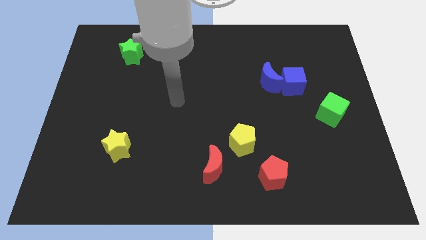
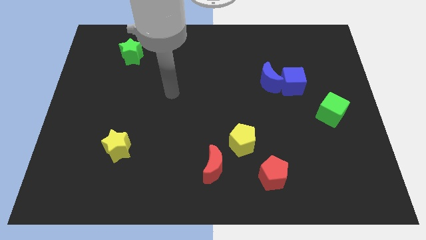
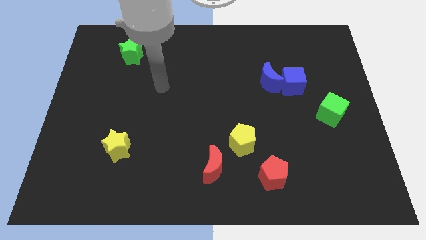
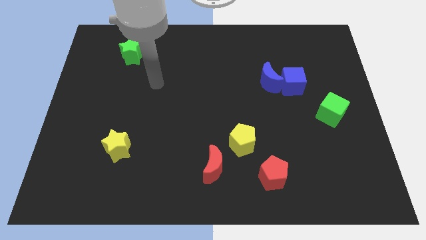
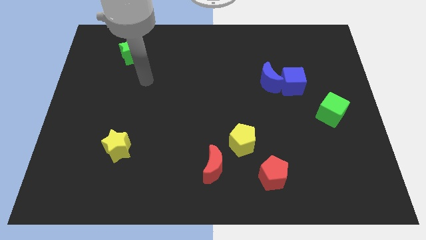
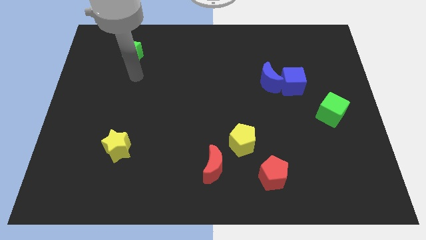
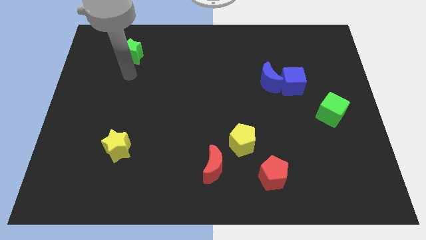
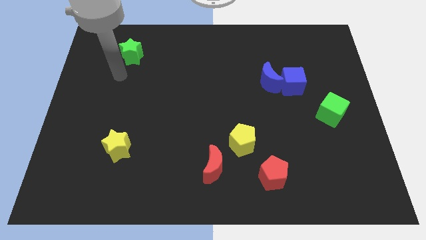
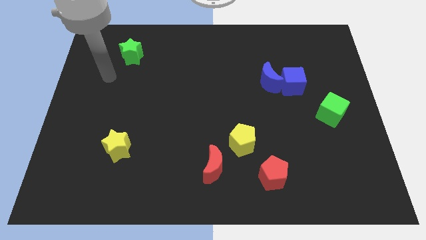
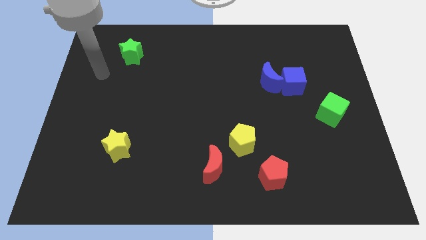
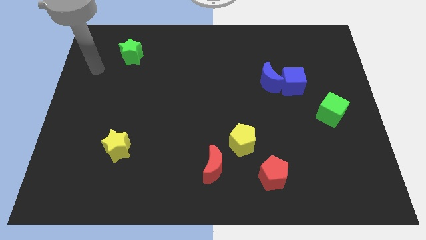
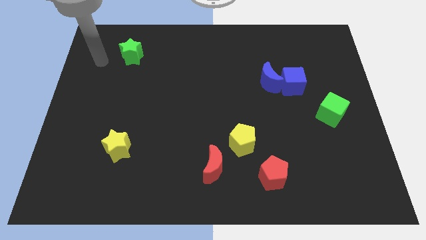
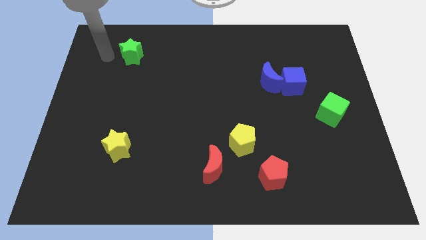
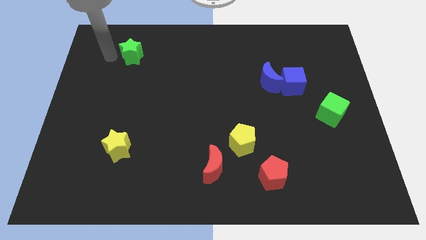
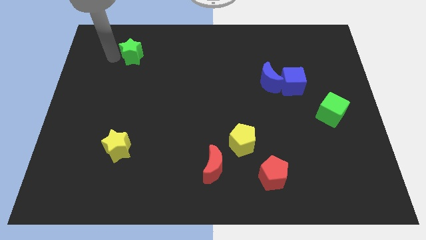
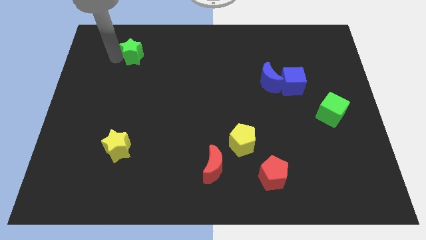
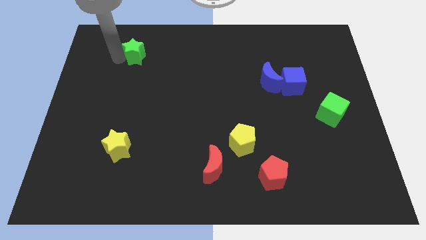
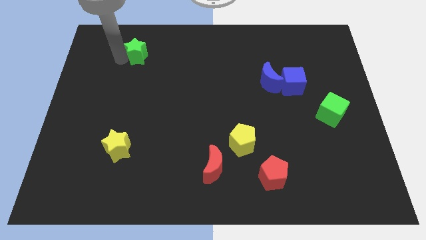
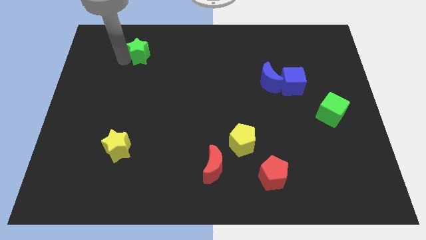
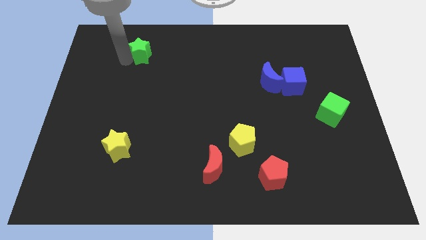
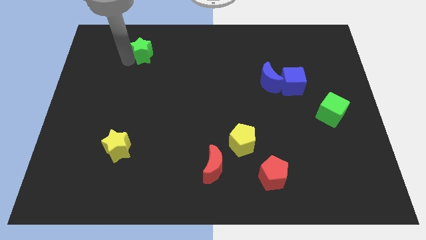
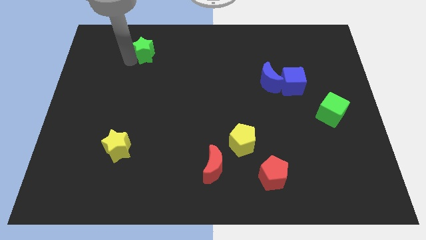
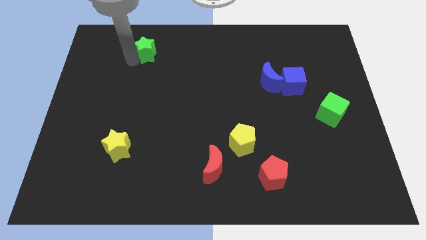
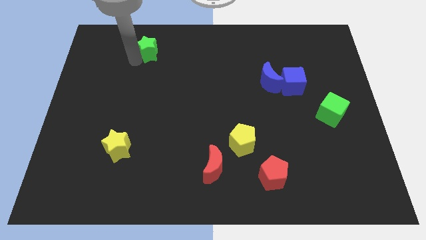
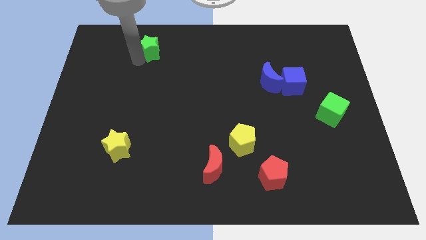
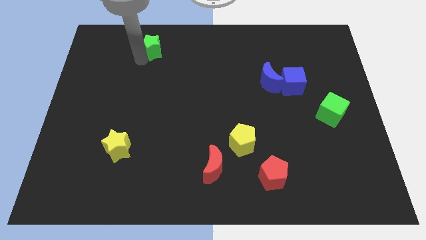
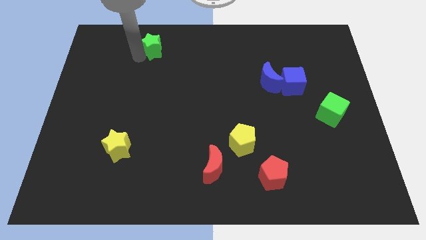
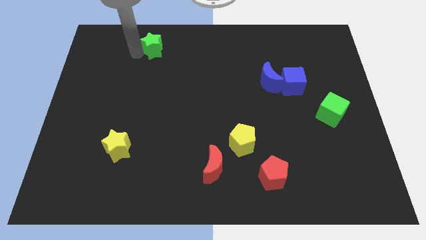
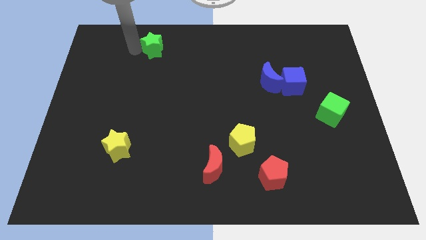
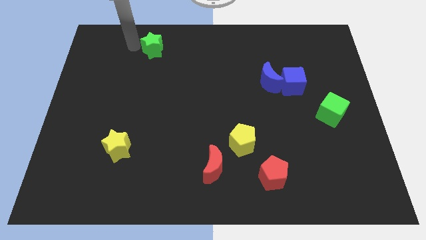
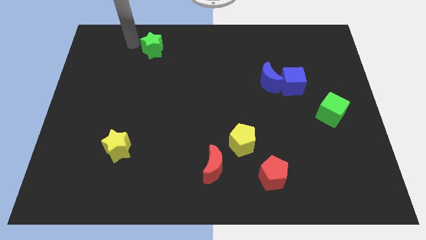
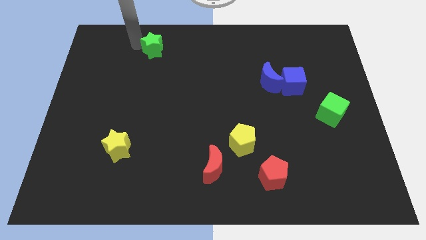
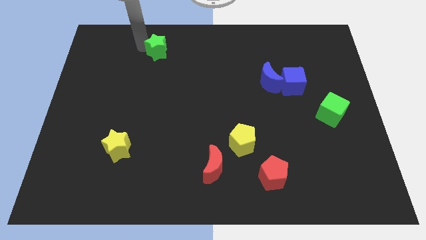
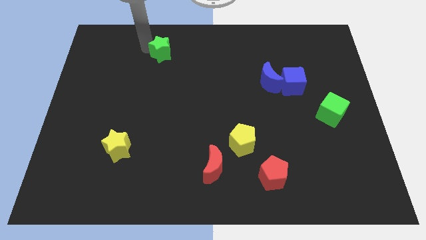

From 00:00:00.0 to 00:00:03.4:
slide the green star right a little

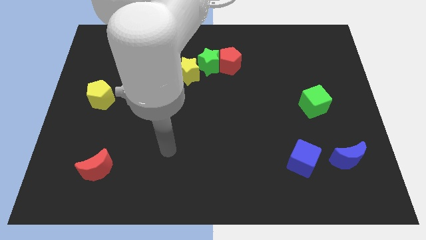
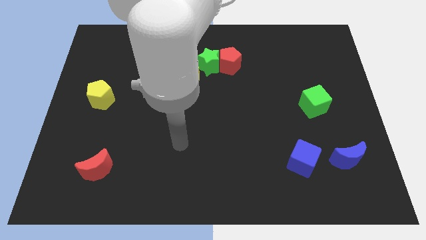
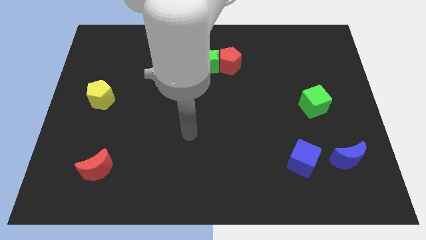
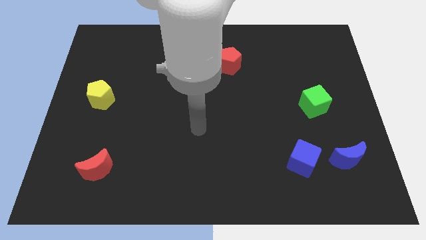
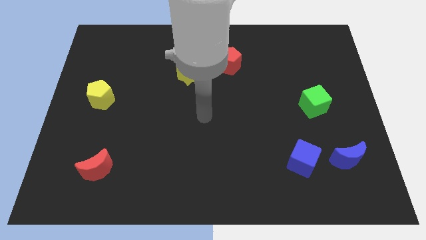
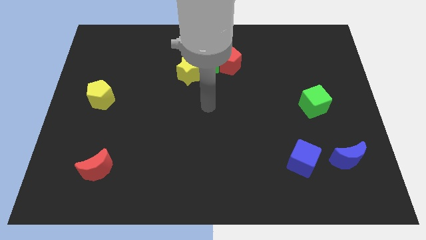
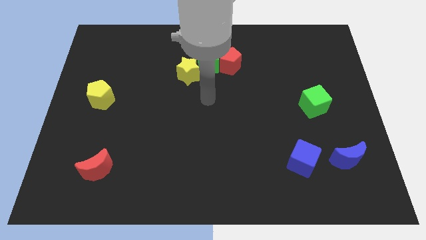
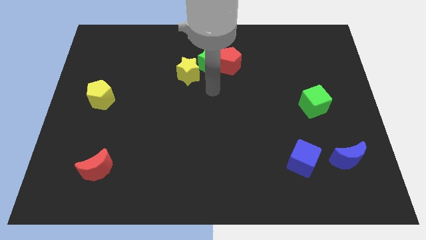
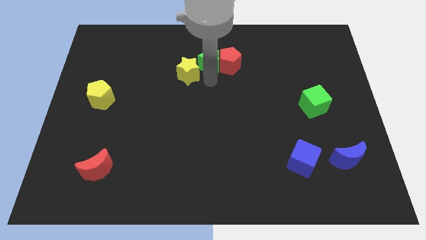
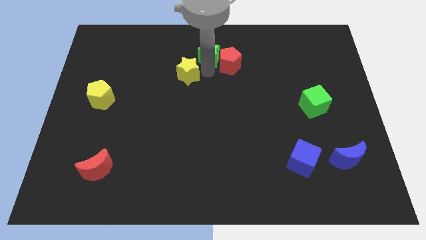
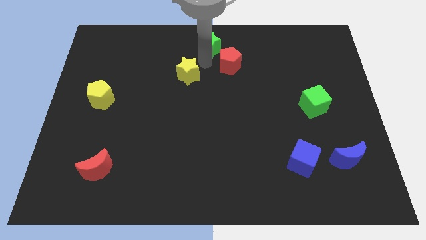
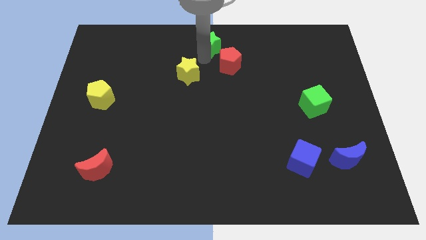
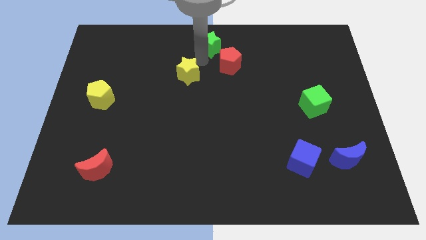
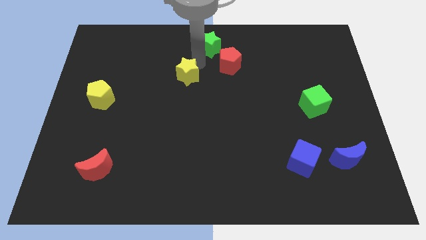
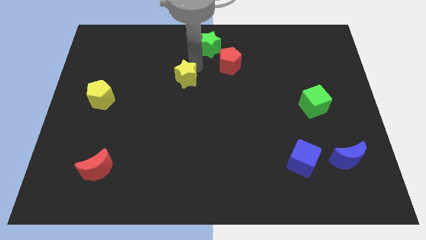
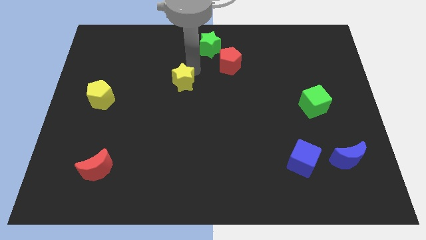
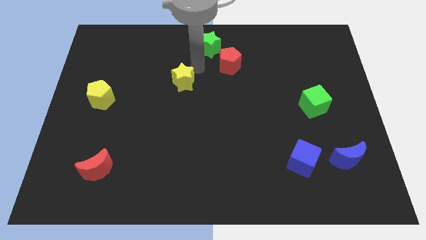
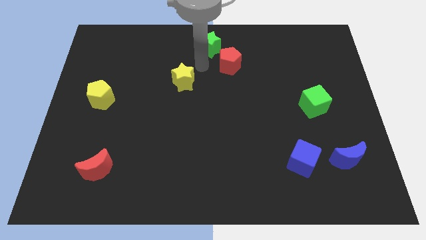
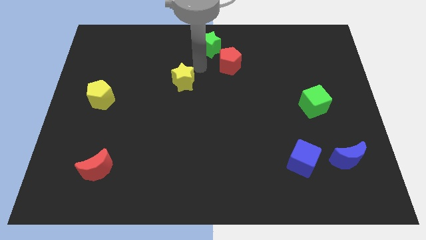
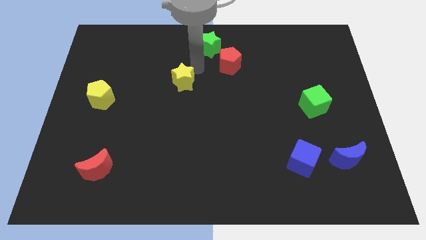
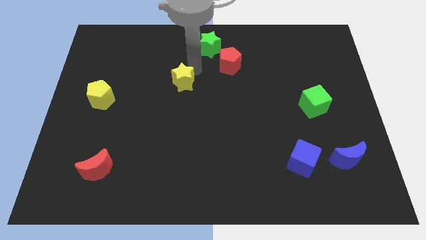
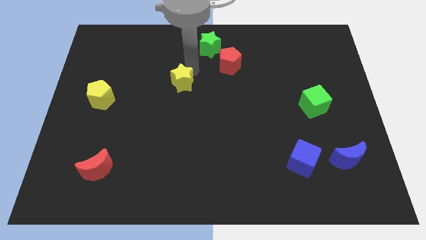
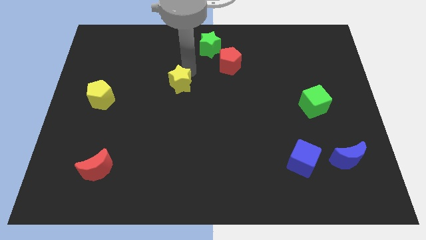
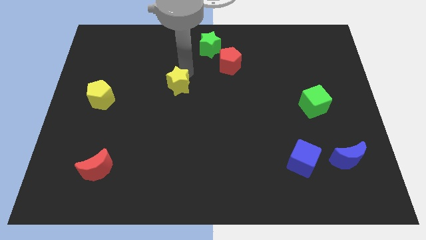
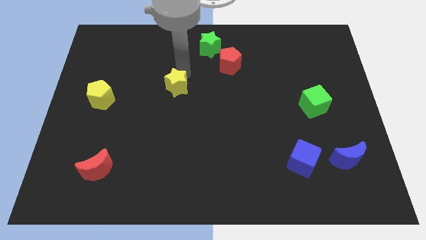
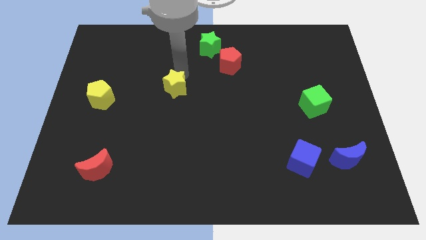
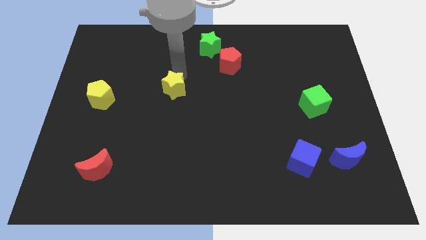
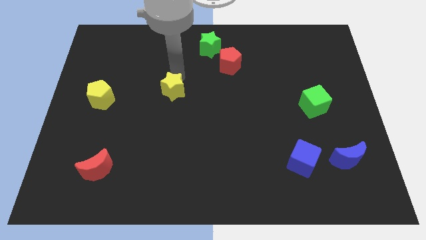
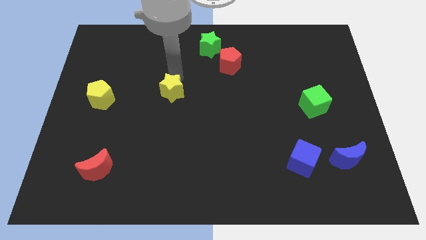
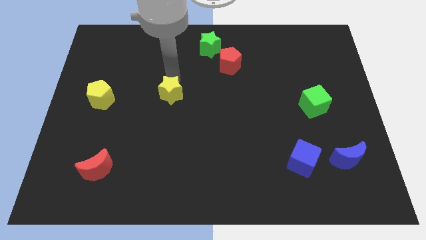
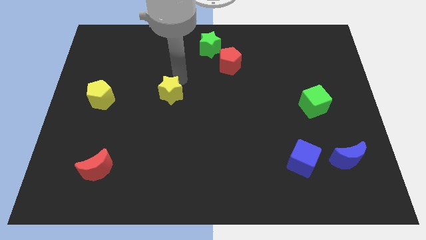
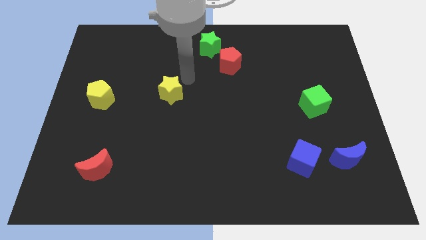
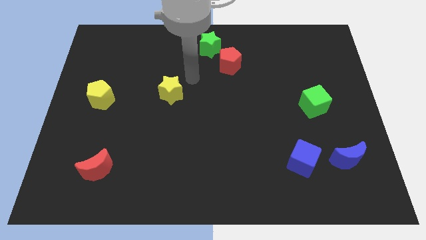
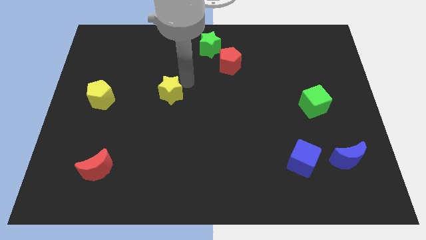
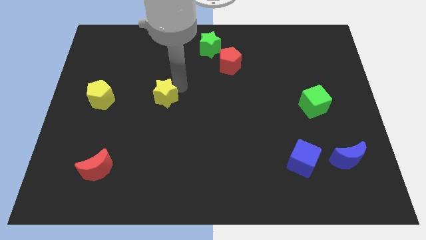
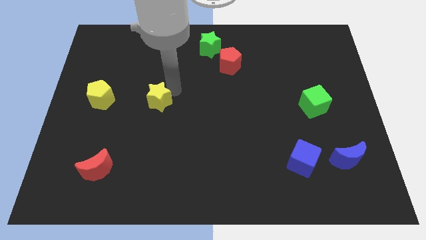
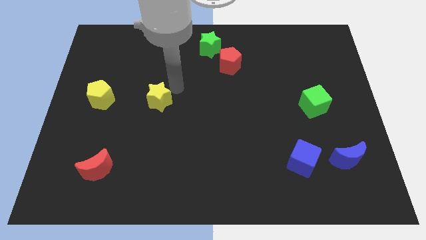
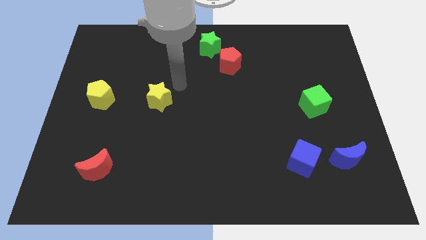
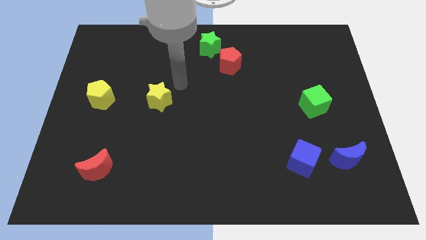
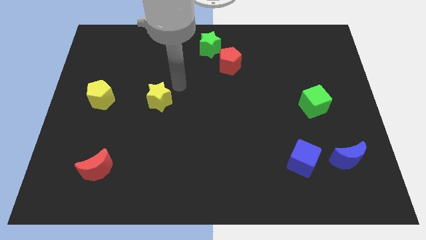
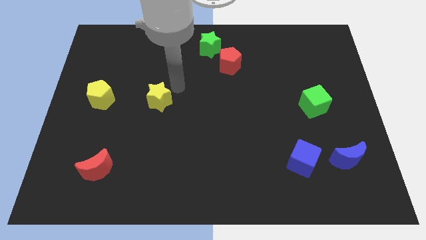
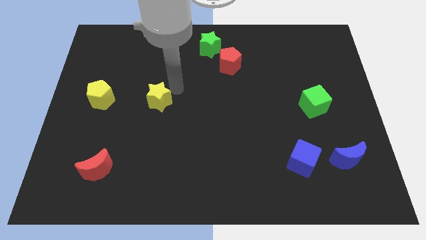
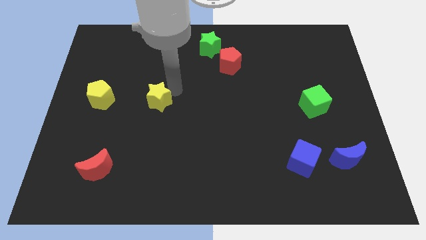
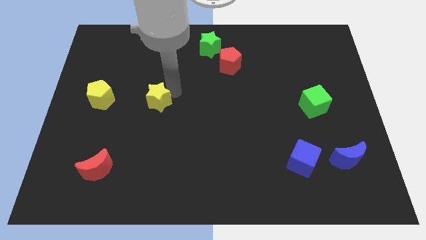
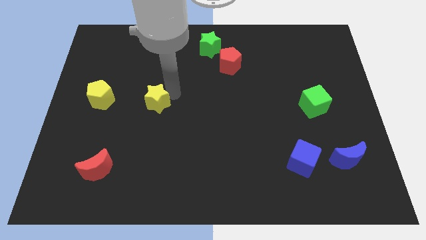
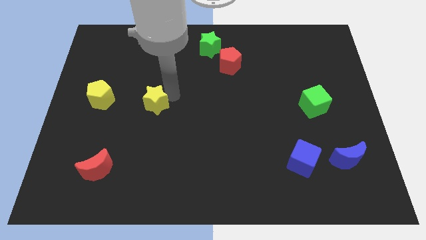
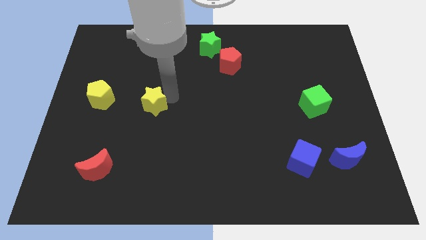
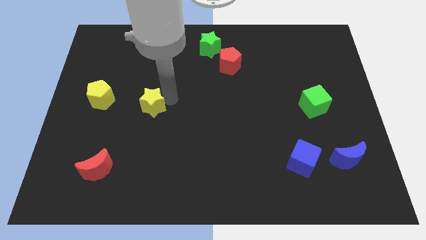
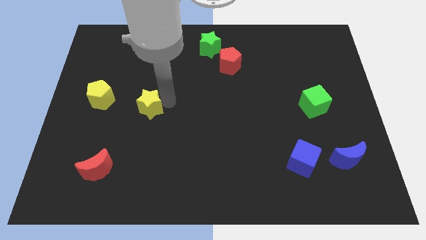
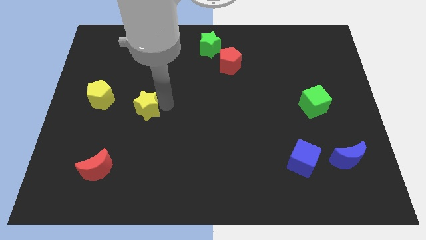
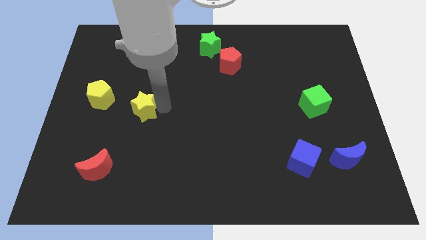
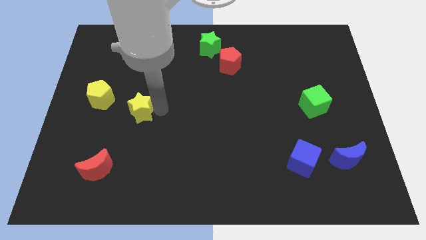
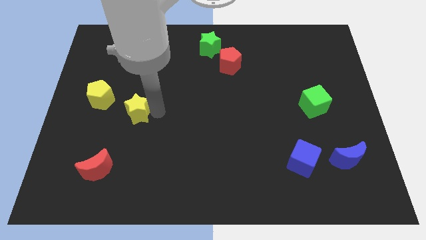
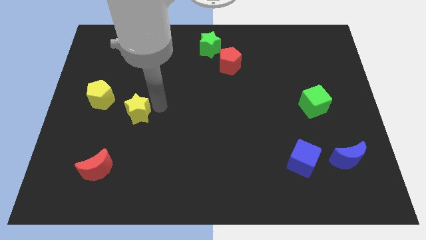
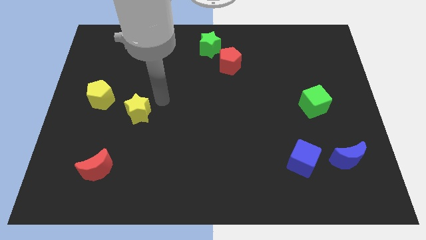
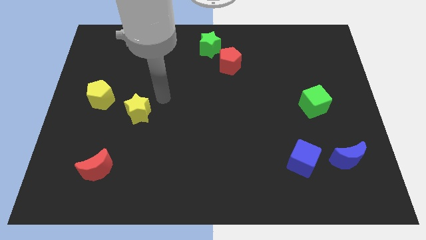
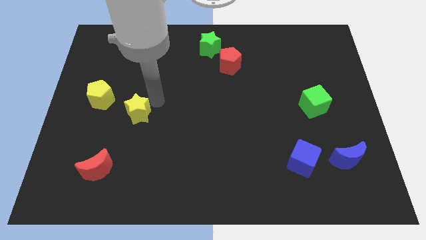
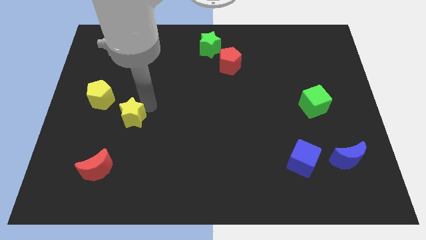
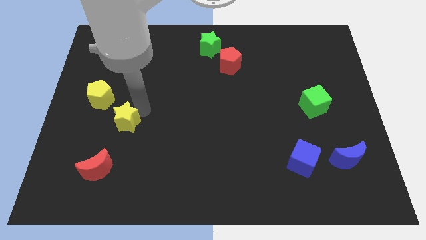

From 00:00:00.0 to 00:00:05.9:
push the yellow star down and to the left diagonally
